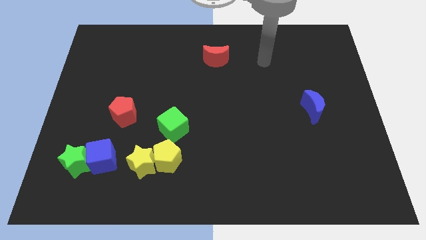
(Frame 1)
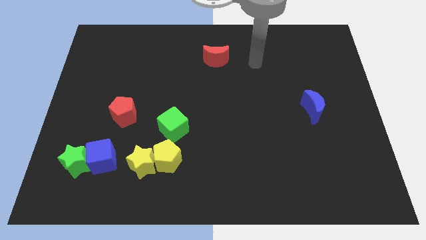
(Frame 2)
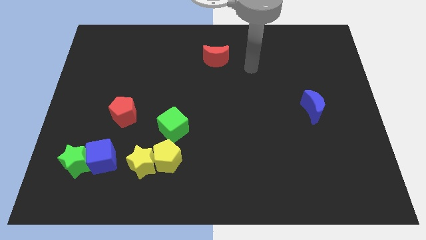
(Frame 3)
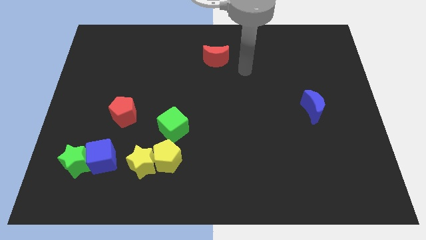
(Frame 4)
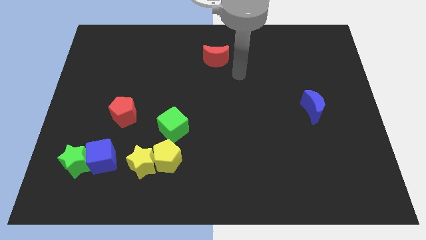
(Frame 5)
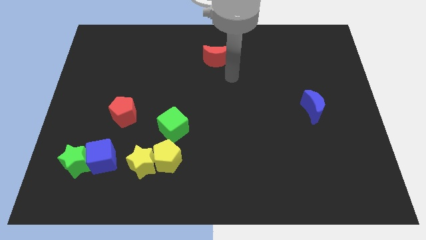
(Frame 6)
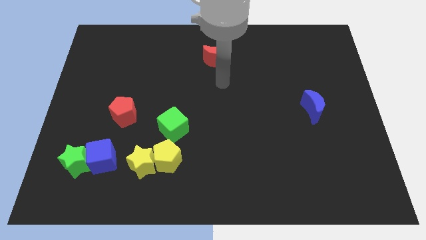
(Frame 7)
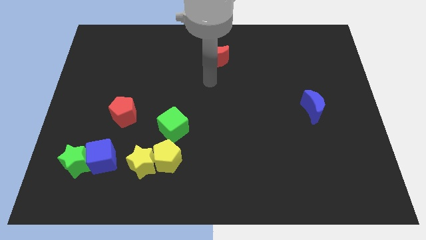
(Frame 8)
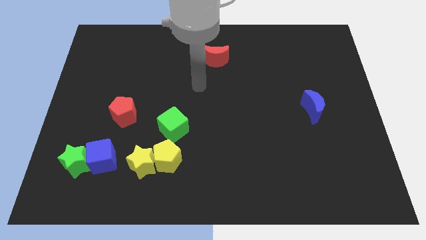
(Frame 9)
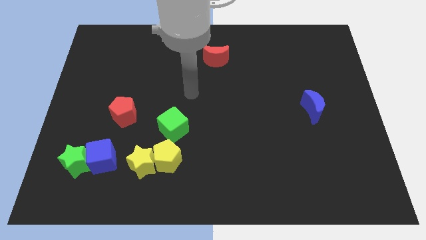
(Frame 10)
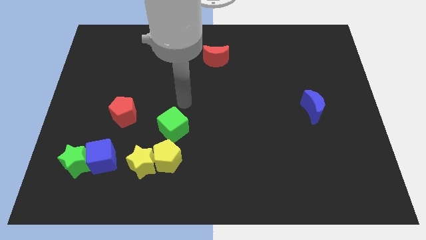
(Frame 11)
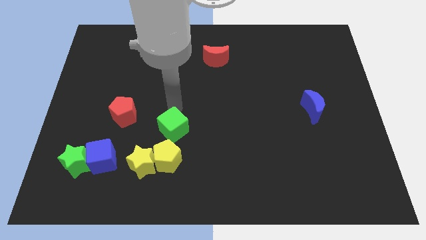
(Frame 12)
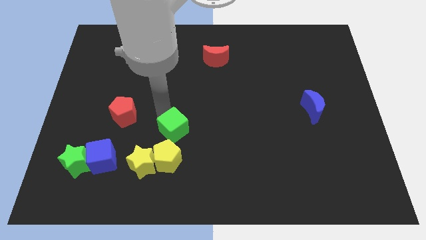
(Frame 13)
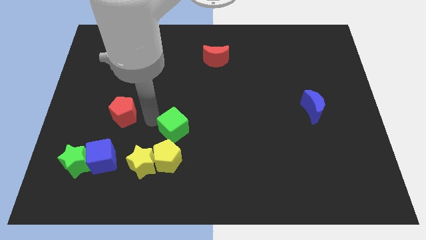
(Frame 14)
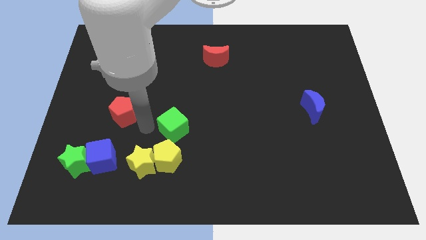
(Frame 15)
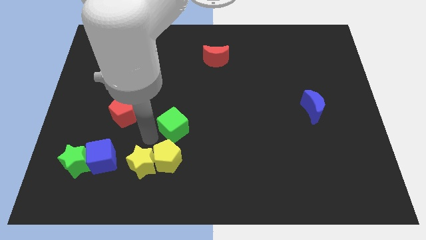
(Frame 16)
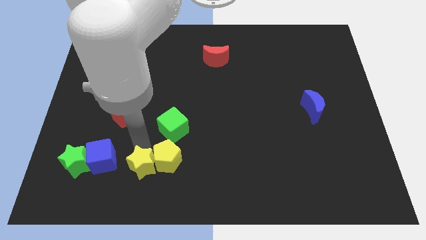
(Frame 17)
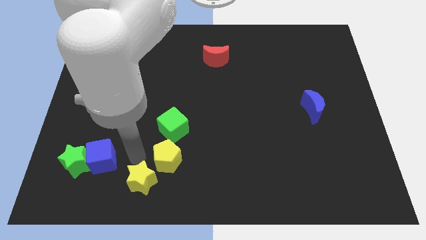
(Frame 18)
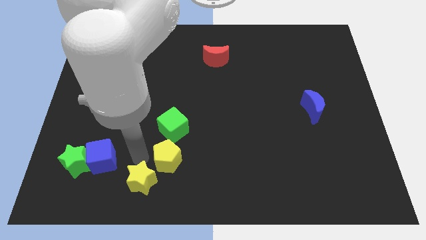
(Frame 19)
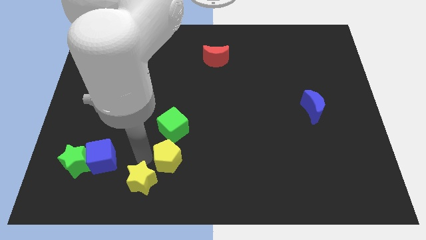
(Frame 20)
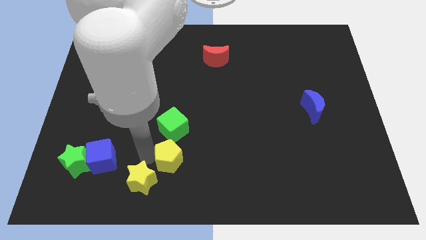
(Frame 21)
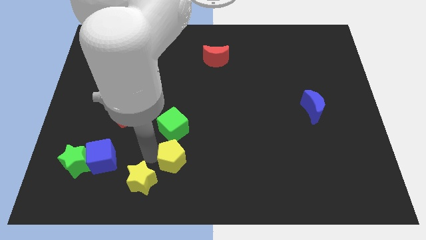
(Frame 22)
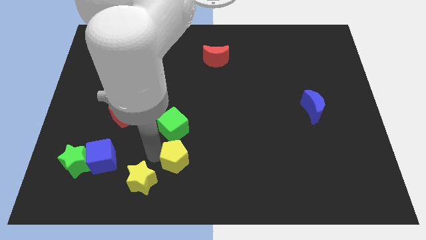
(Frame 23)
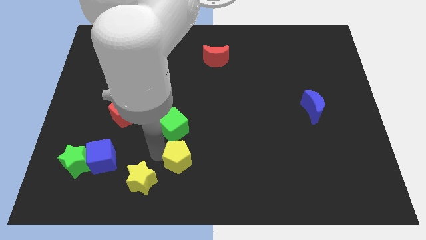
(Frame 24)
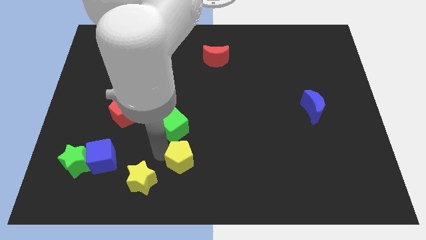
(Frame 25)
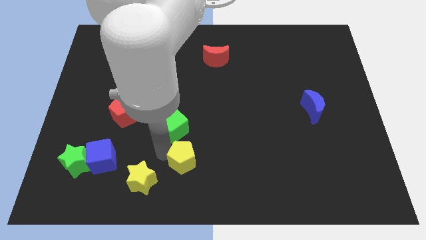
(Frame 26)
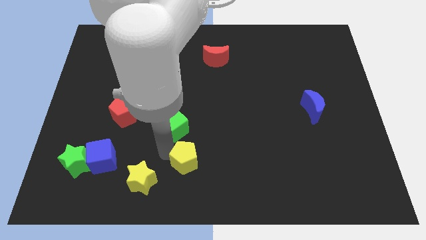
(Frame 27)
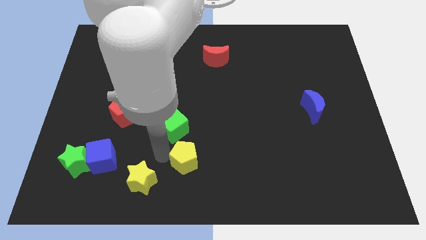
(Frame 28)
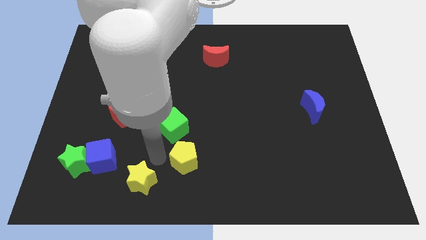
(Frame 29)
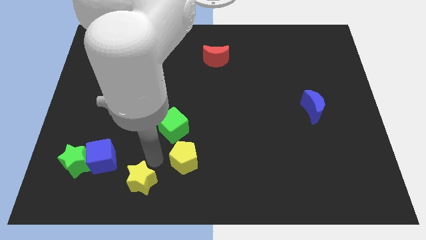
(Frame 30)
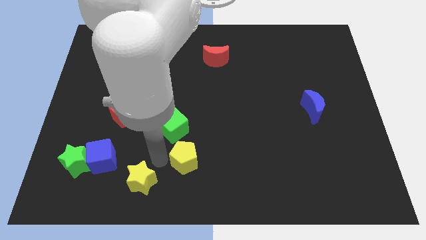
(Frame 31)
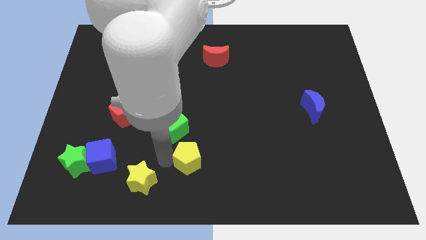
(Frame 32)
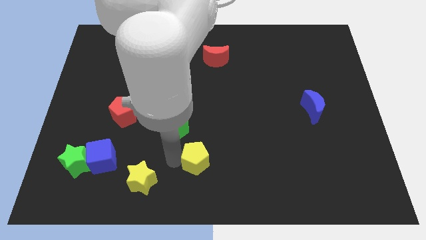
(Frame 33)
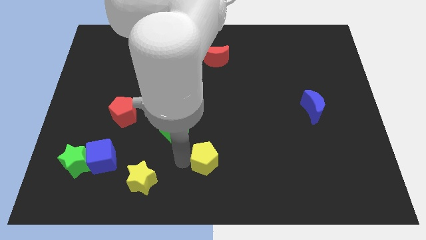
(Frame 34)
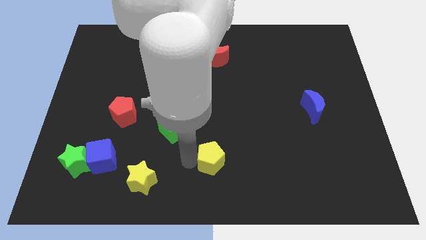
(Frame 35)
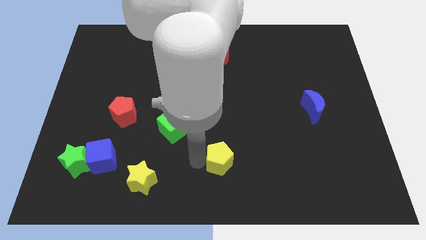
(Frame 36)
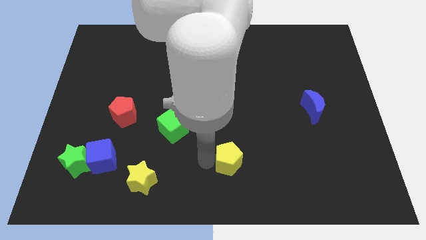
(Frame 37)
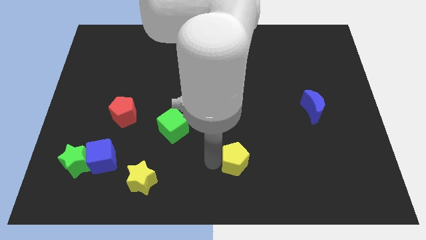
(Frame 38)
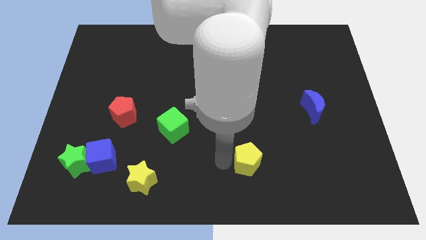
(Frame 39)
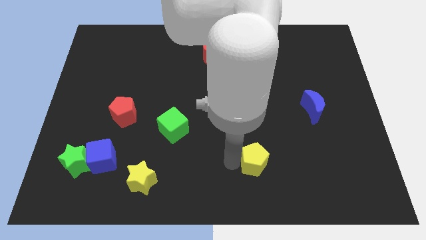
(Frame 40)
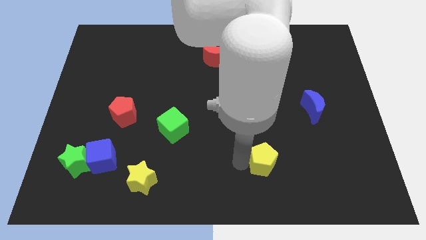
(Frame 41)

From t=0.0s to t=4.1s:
slide the yellow pentagon right

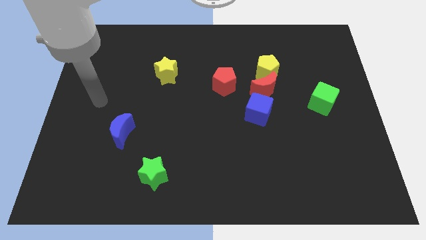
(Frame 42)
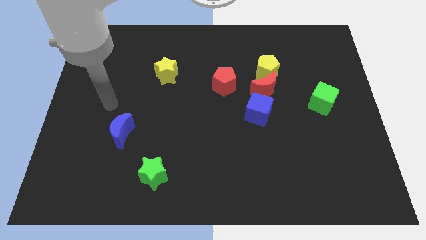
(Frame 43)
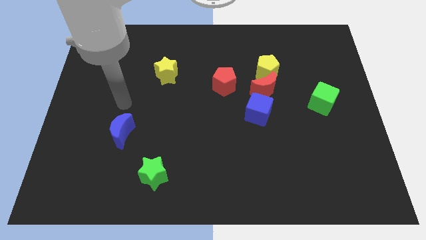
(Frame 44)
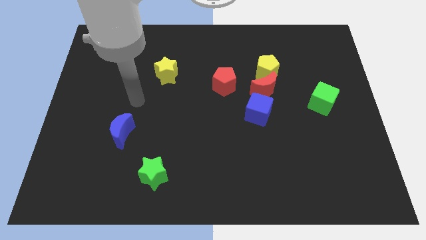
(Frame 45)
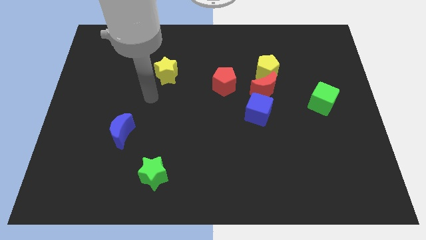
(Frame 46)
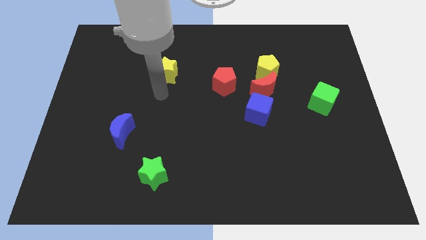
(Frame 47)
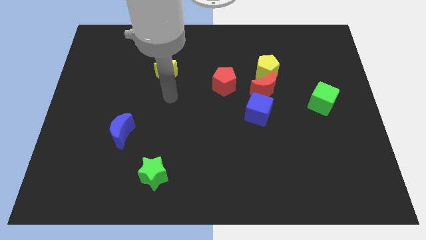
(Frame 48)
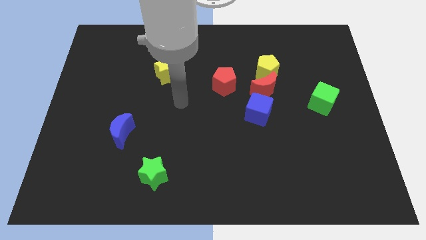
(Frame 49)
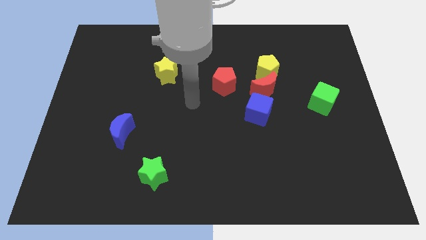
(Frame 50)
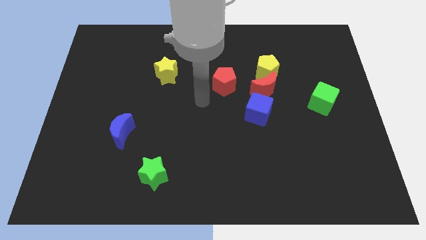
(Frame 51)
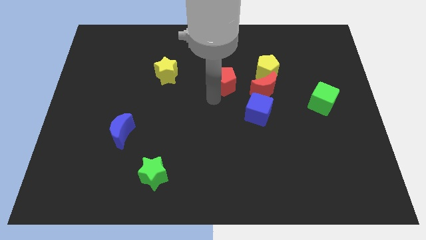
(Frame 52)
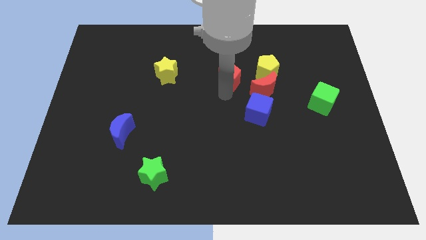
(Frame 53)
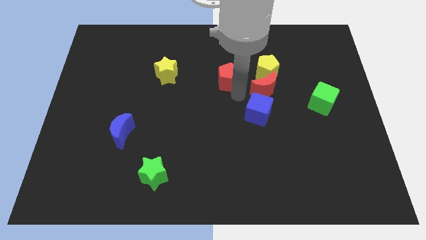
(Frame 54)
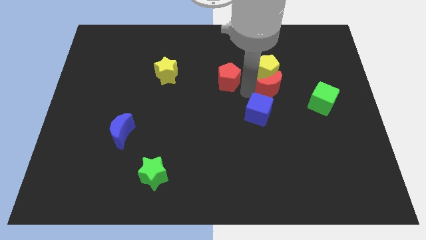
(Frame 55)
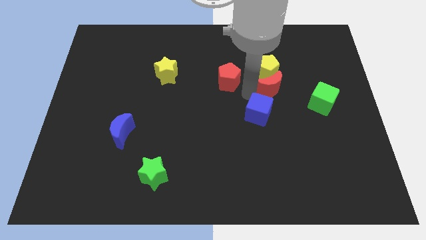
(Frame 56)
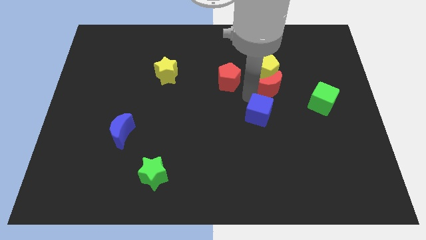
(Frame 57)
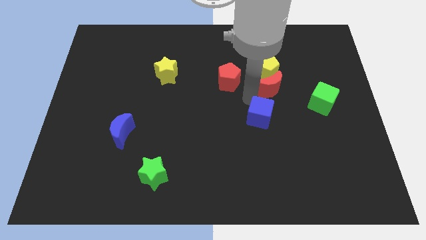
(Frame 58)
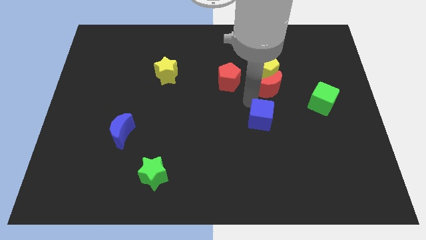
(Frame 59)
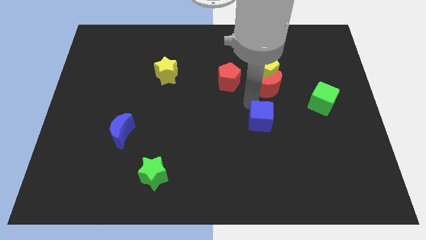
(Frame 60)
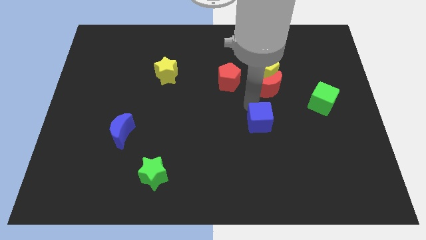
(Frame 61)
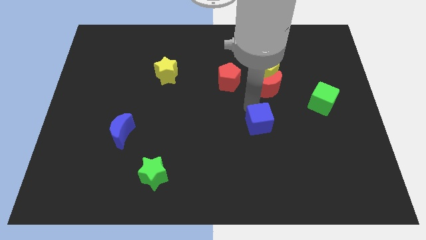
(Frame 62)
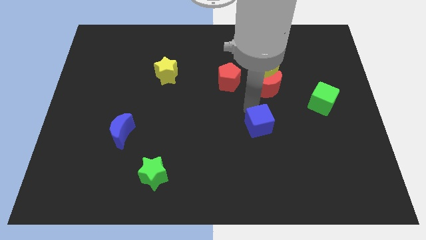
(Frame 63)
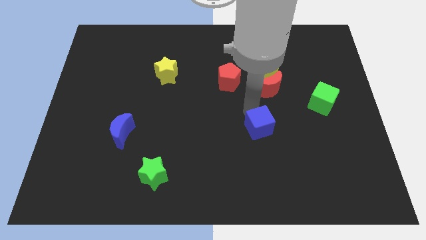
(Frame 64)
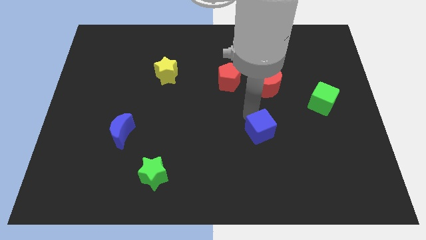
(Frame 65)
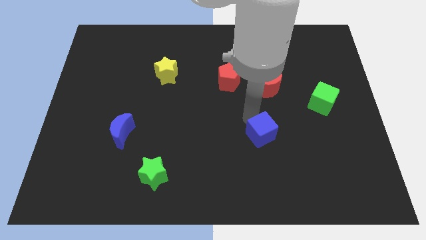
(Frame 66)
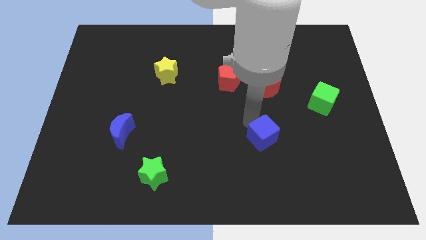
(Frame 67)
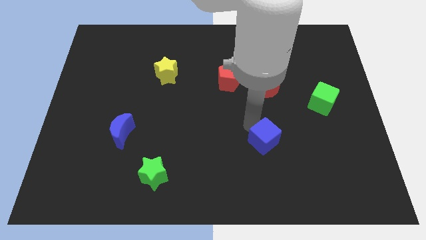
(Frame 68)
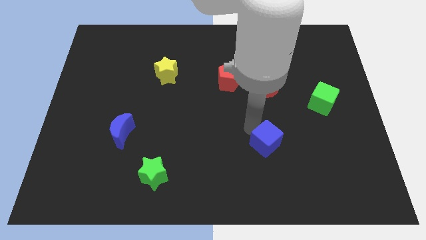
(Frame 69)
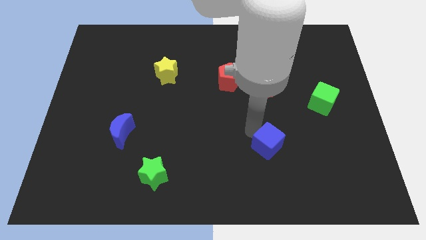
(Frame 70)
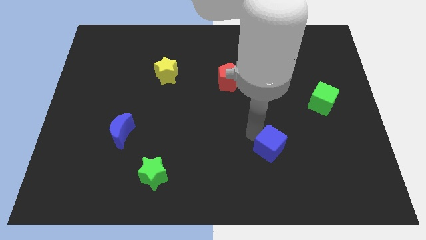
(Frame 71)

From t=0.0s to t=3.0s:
slide the blue cube a little bit down and right

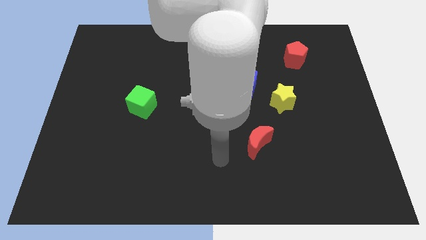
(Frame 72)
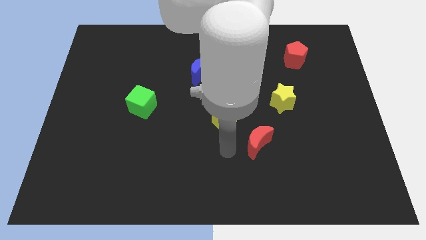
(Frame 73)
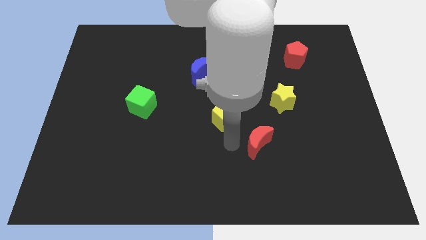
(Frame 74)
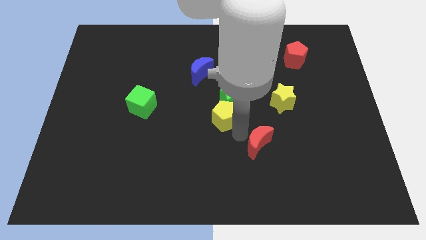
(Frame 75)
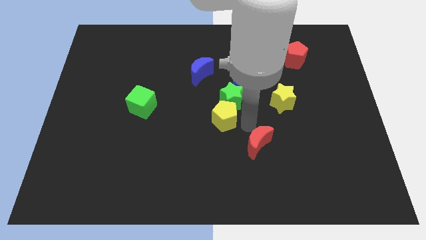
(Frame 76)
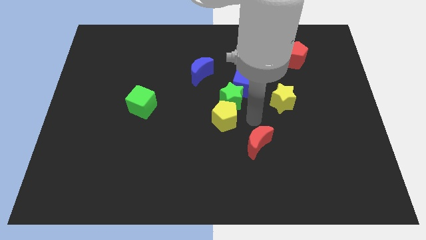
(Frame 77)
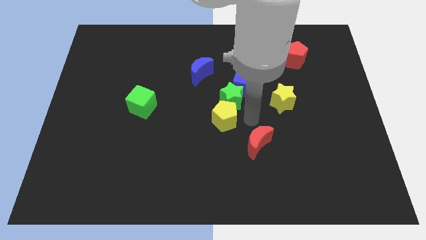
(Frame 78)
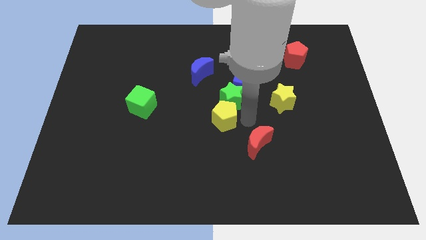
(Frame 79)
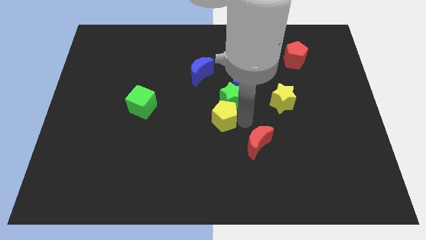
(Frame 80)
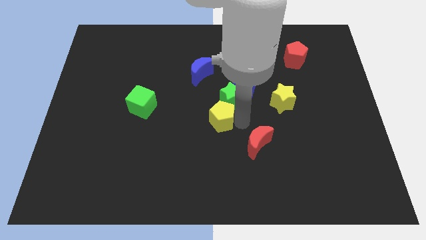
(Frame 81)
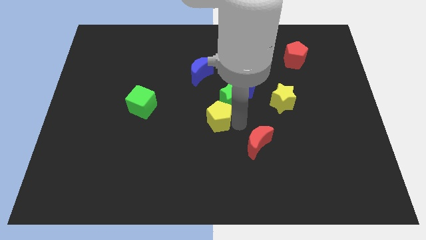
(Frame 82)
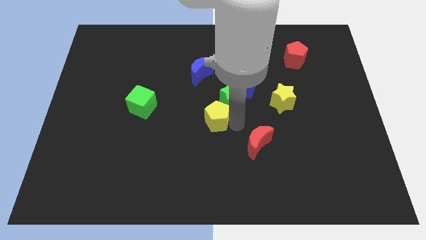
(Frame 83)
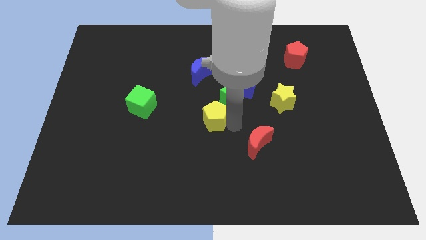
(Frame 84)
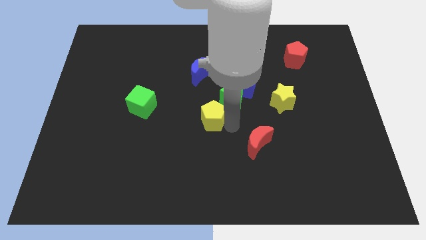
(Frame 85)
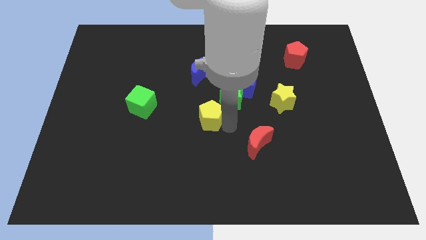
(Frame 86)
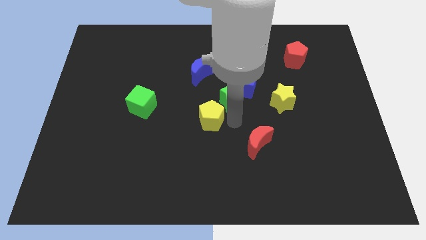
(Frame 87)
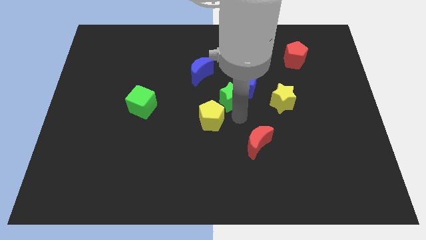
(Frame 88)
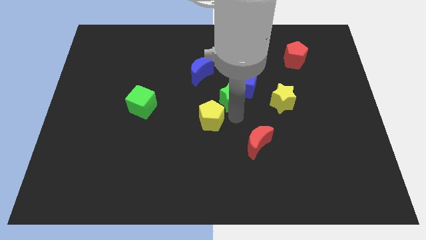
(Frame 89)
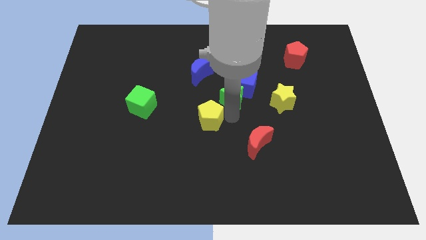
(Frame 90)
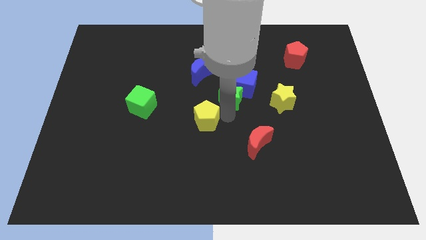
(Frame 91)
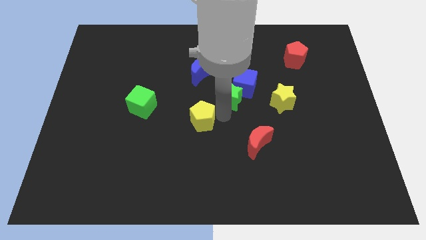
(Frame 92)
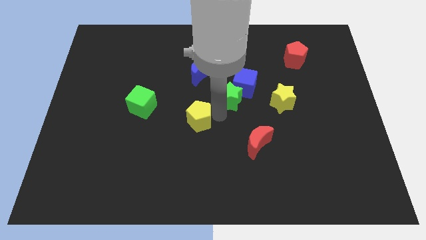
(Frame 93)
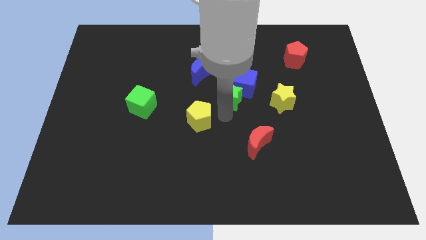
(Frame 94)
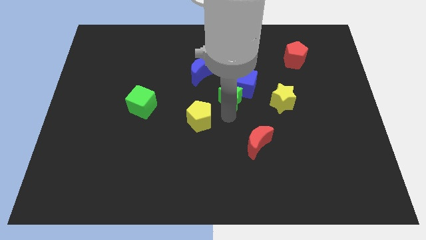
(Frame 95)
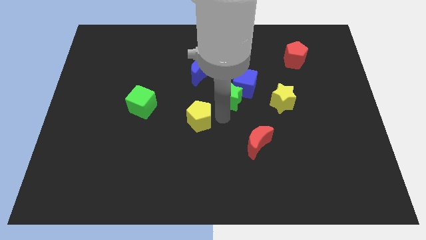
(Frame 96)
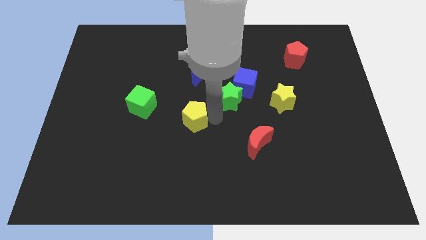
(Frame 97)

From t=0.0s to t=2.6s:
move the yellow pentagon somewhat to the left
